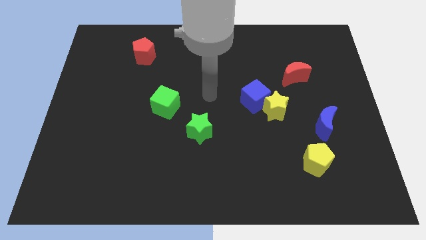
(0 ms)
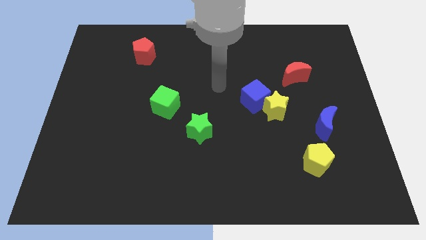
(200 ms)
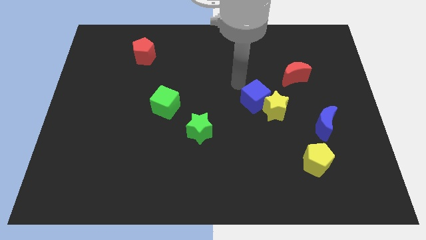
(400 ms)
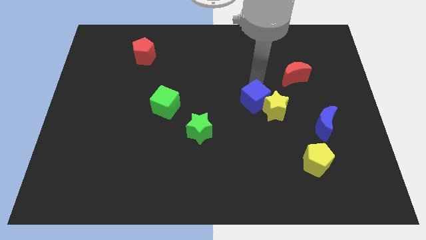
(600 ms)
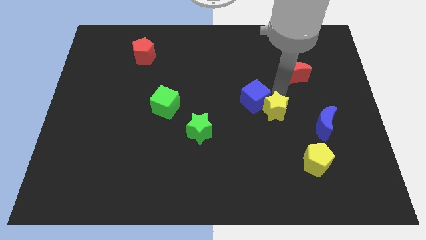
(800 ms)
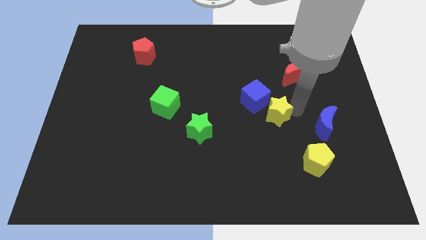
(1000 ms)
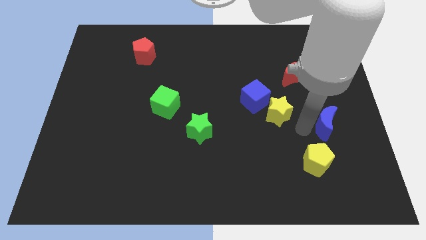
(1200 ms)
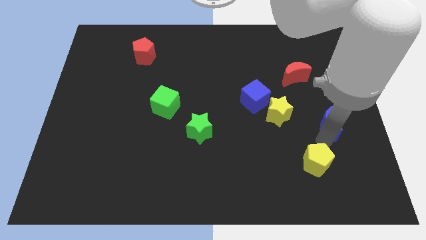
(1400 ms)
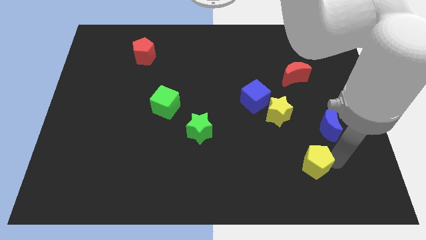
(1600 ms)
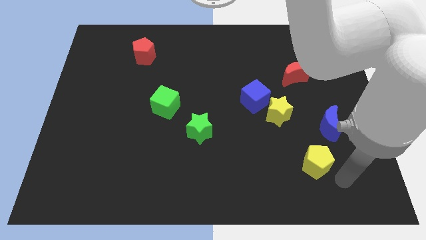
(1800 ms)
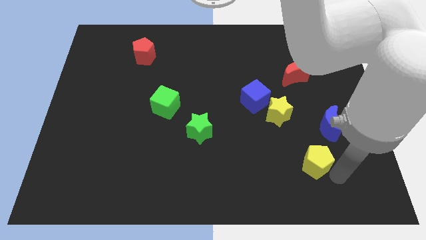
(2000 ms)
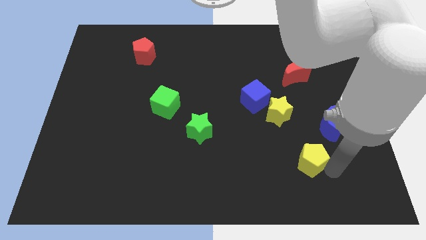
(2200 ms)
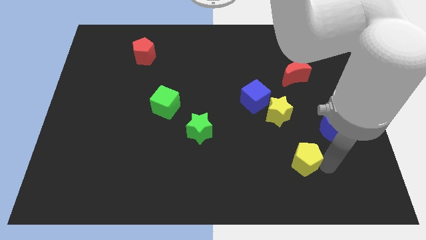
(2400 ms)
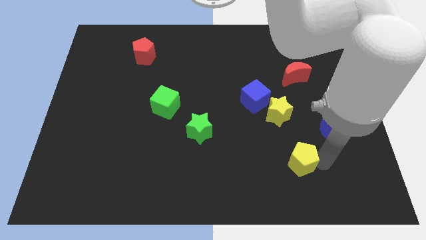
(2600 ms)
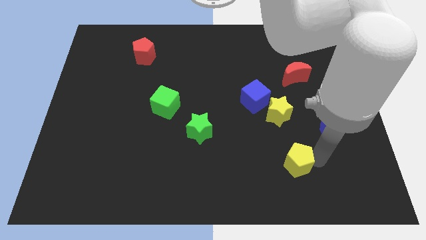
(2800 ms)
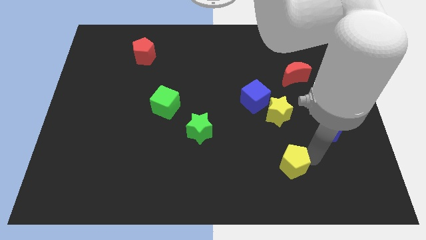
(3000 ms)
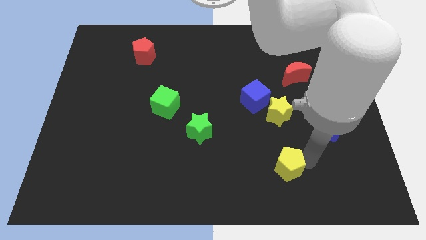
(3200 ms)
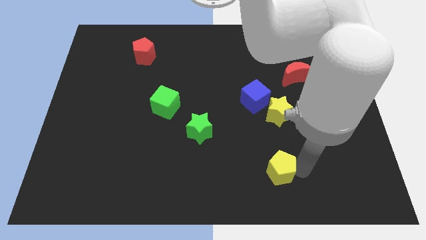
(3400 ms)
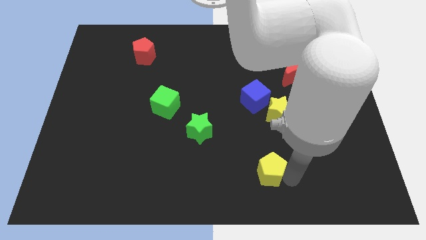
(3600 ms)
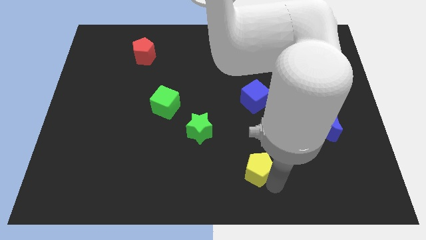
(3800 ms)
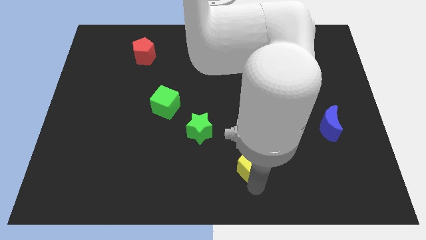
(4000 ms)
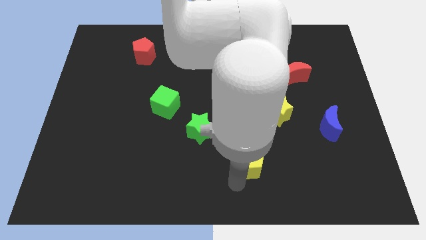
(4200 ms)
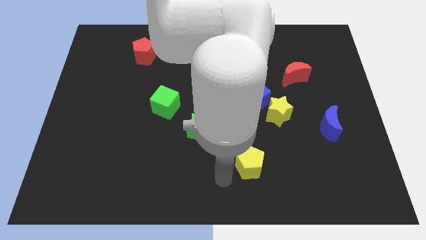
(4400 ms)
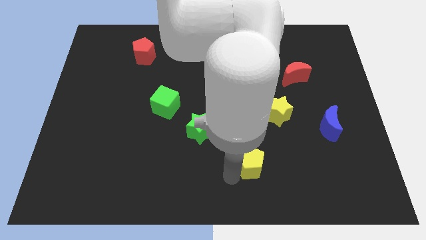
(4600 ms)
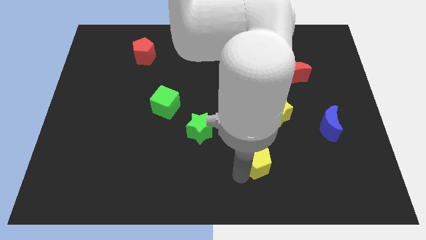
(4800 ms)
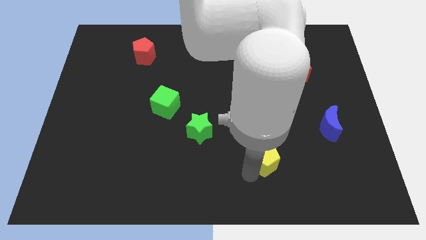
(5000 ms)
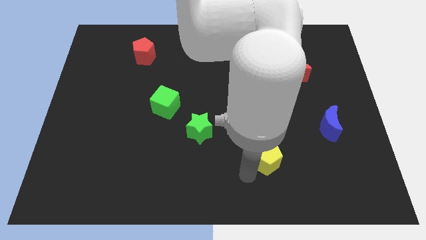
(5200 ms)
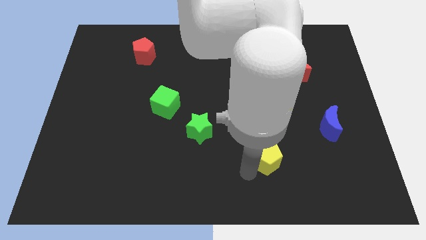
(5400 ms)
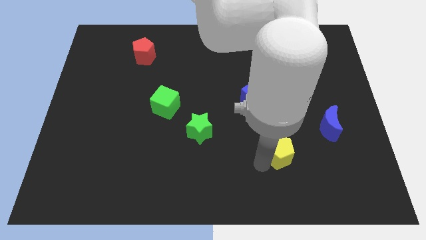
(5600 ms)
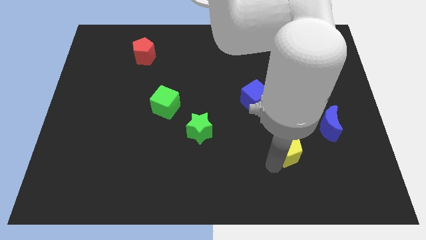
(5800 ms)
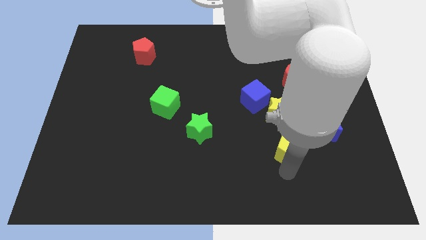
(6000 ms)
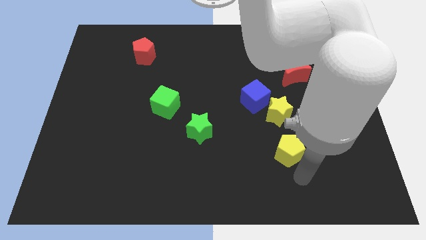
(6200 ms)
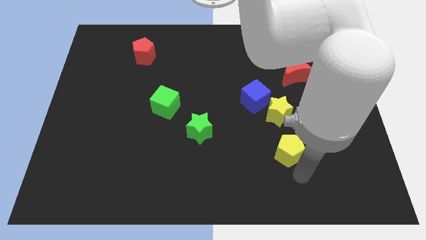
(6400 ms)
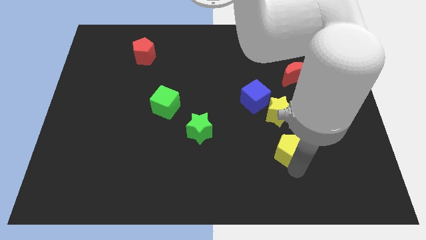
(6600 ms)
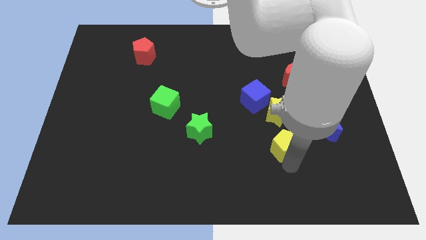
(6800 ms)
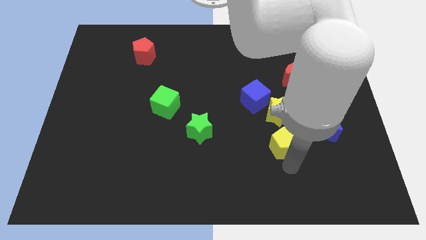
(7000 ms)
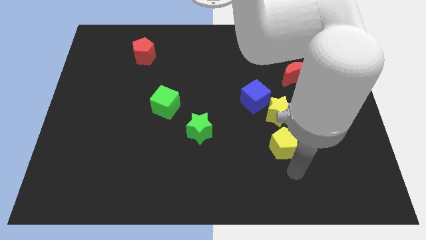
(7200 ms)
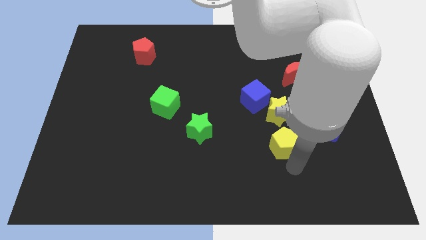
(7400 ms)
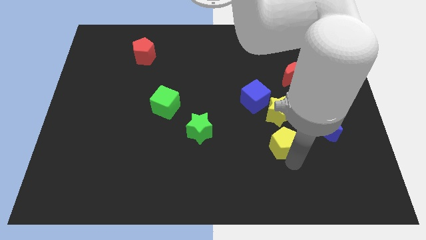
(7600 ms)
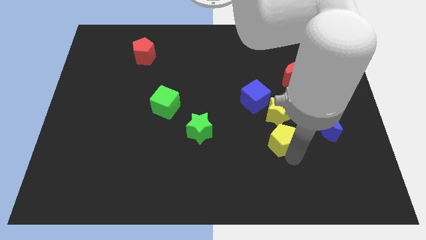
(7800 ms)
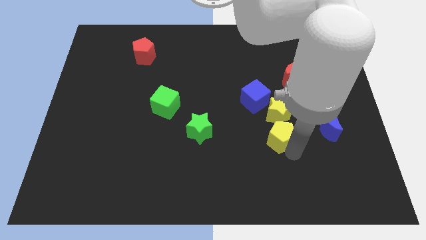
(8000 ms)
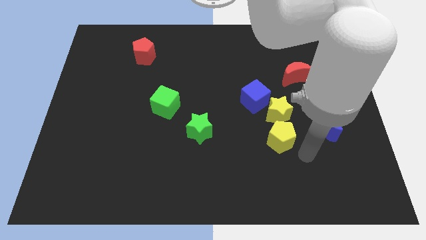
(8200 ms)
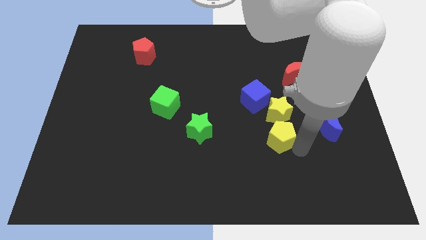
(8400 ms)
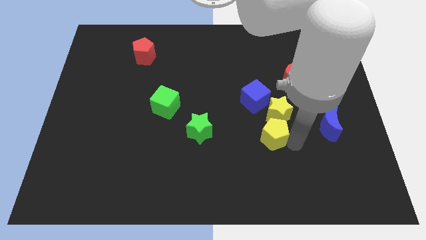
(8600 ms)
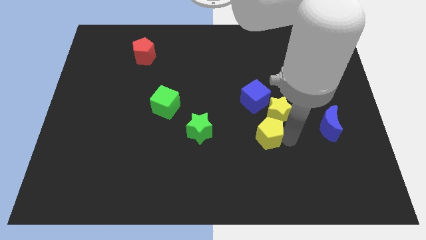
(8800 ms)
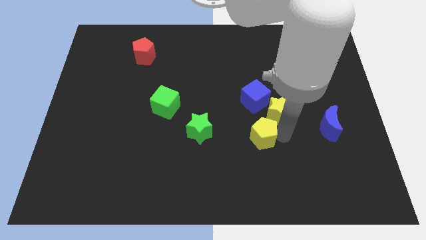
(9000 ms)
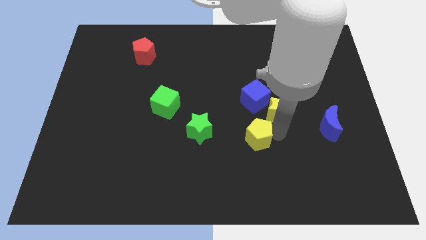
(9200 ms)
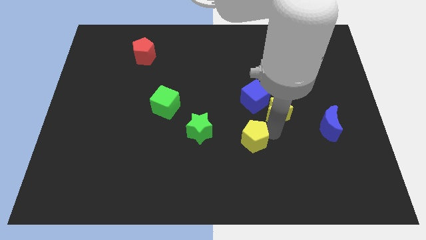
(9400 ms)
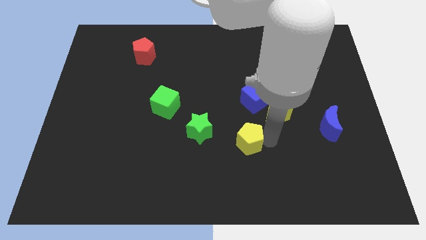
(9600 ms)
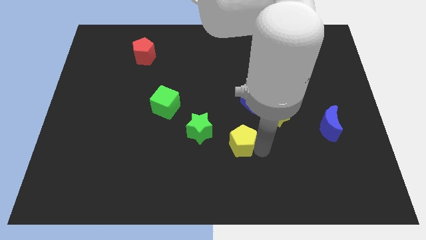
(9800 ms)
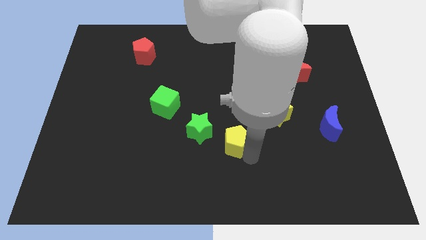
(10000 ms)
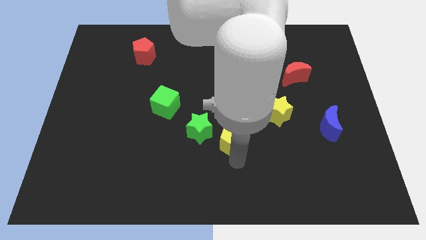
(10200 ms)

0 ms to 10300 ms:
slide the yellow pentagon to the center of the board

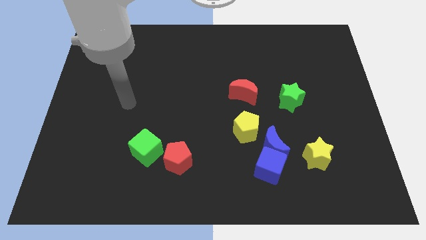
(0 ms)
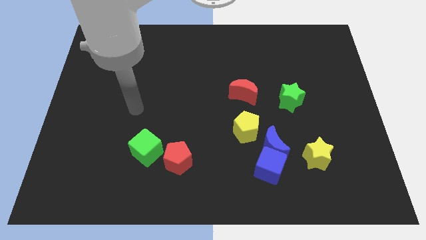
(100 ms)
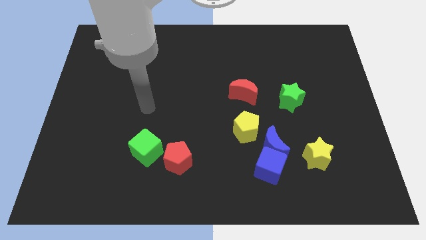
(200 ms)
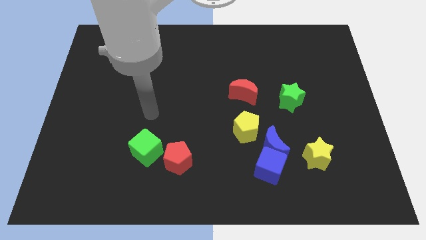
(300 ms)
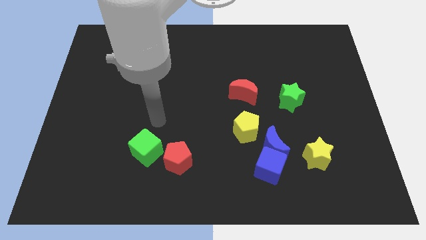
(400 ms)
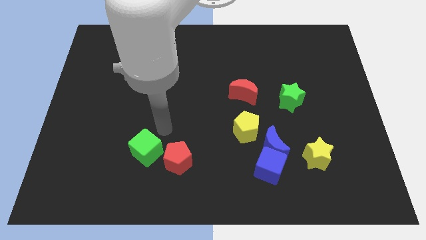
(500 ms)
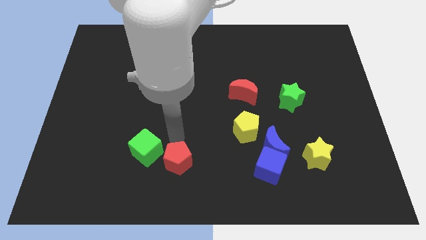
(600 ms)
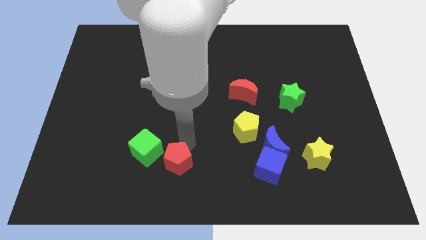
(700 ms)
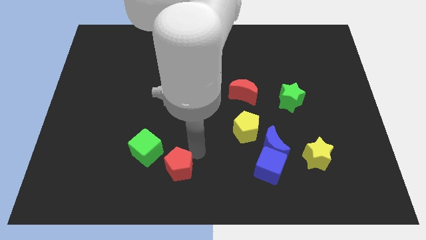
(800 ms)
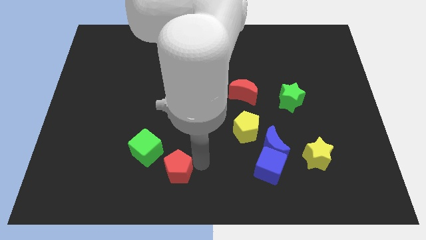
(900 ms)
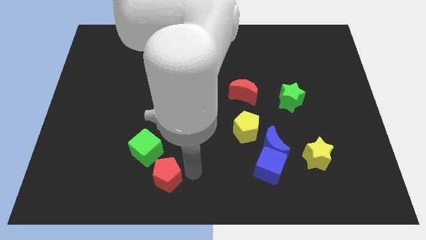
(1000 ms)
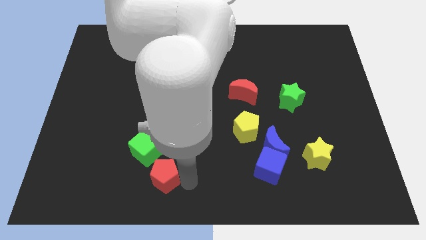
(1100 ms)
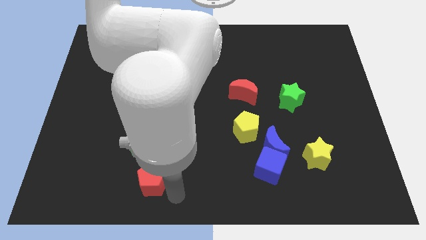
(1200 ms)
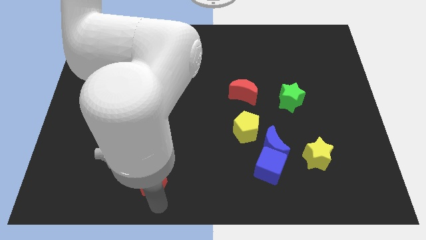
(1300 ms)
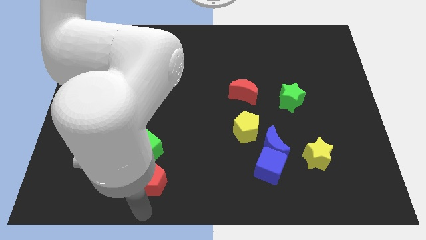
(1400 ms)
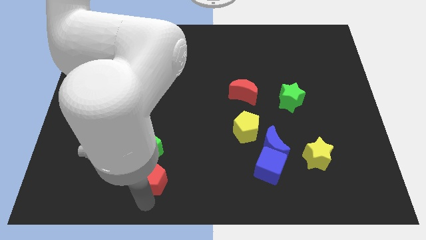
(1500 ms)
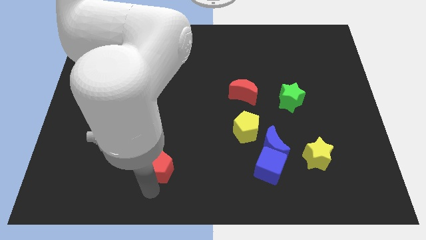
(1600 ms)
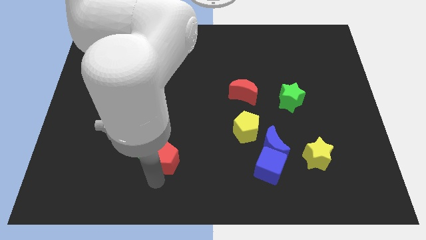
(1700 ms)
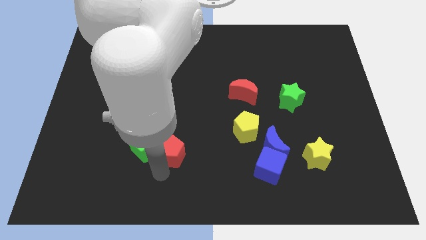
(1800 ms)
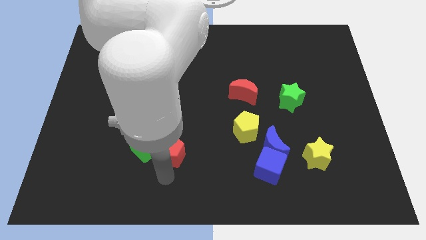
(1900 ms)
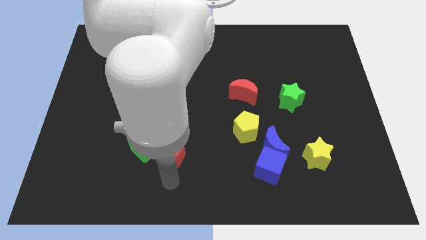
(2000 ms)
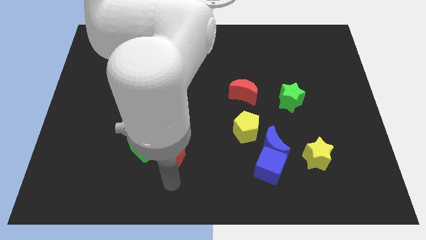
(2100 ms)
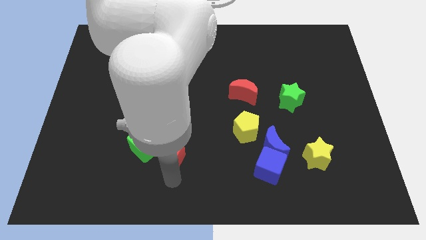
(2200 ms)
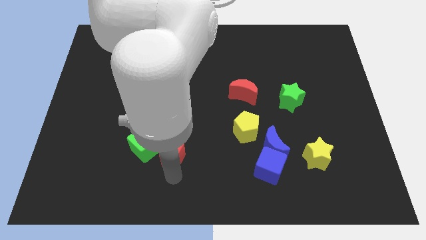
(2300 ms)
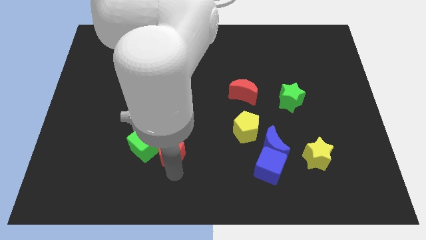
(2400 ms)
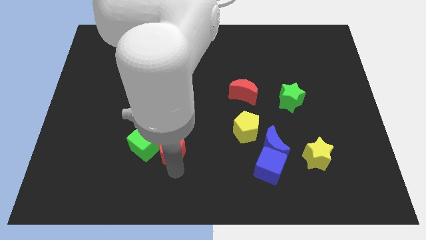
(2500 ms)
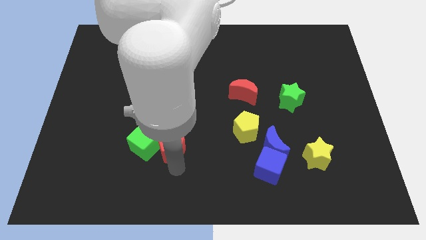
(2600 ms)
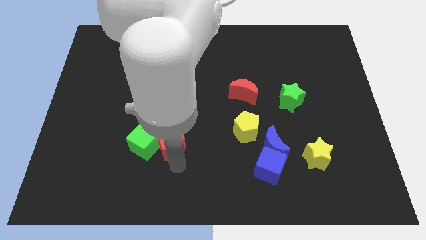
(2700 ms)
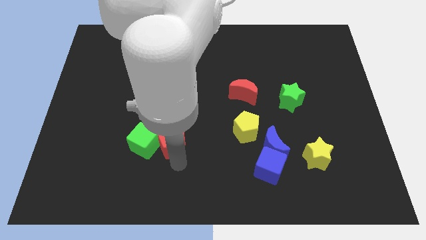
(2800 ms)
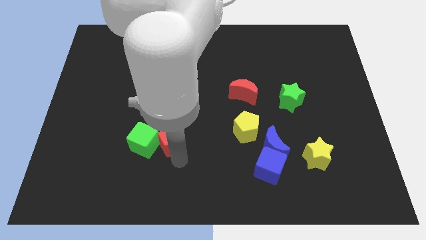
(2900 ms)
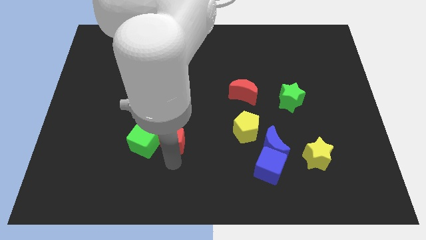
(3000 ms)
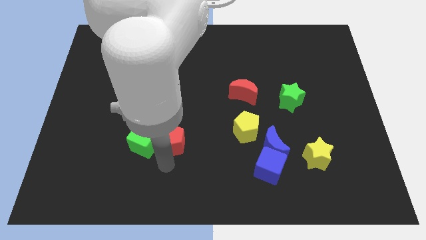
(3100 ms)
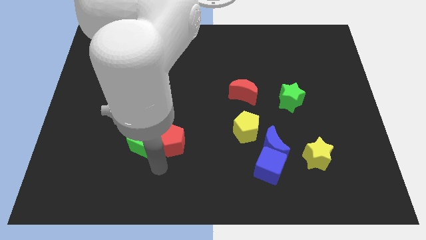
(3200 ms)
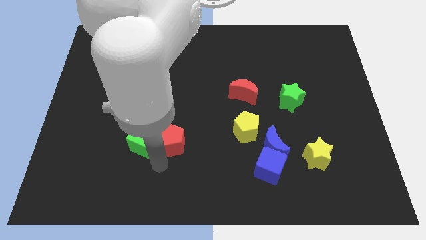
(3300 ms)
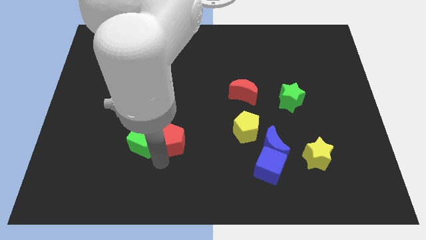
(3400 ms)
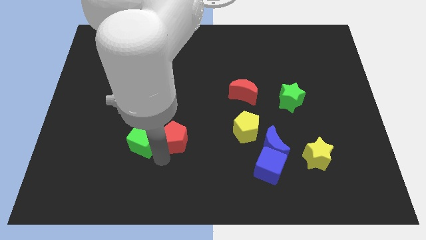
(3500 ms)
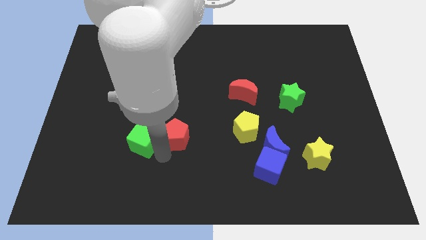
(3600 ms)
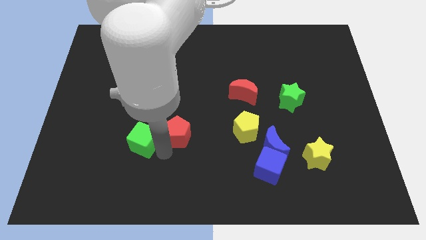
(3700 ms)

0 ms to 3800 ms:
push the red pentagon to the center
